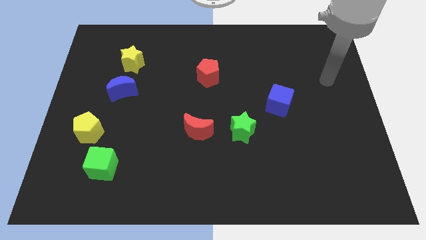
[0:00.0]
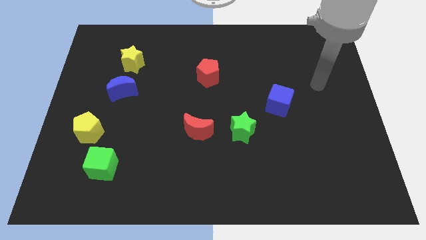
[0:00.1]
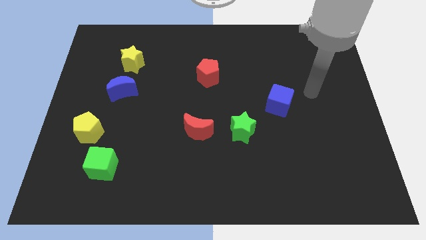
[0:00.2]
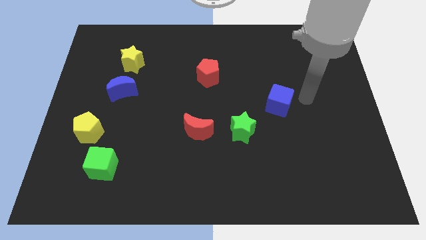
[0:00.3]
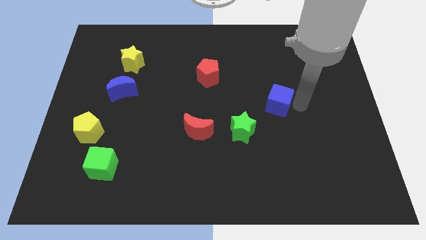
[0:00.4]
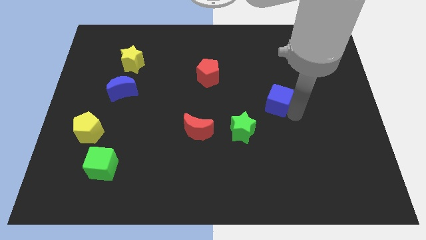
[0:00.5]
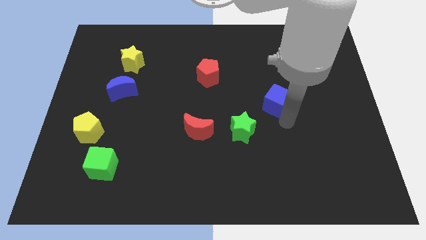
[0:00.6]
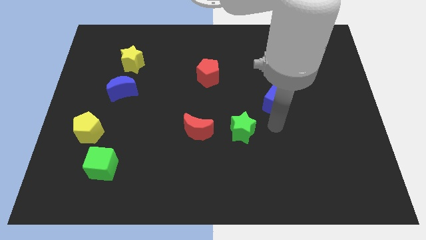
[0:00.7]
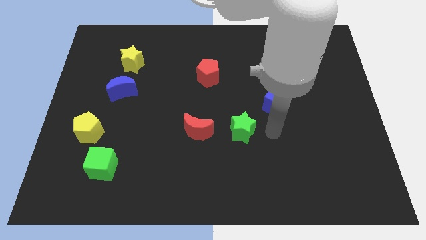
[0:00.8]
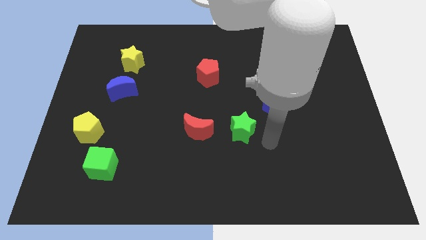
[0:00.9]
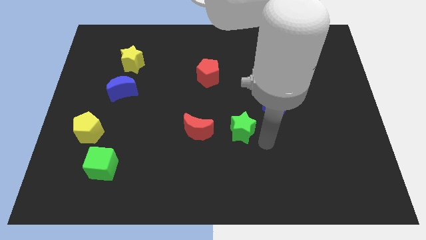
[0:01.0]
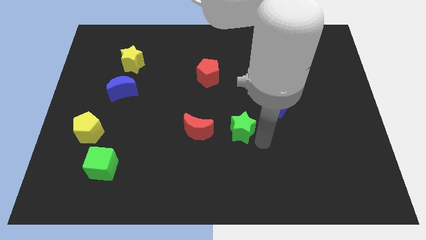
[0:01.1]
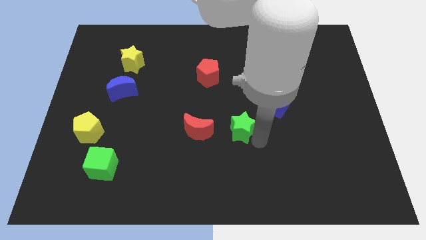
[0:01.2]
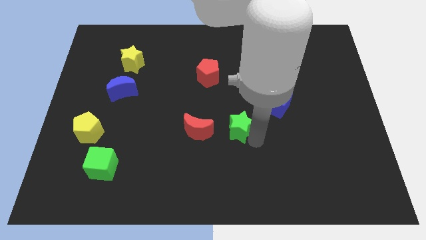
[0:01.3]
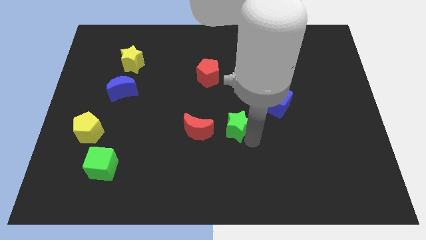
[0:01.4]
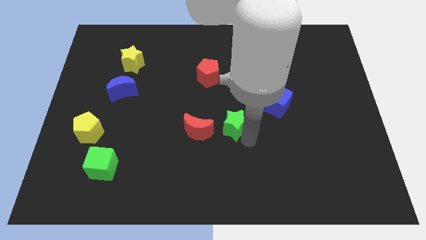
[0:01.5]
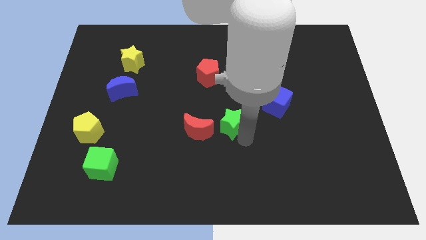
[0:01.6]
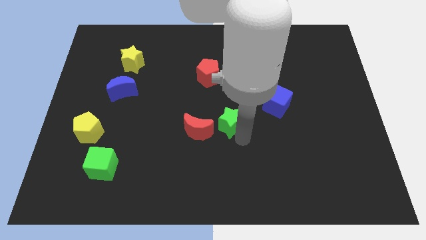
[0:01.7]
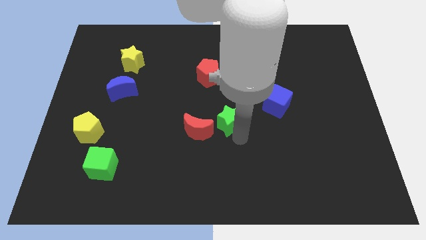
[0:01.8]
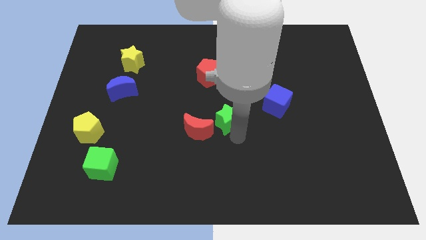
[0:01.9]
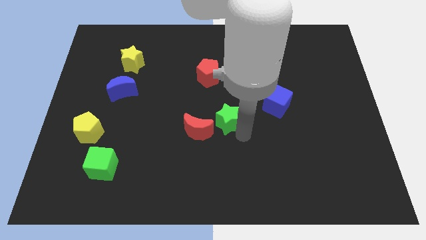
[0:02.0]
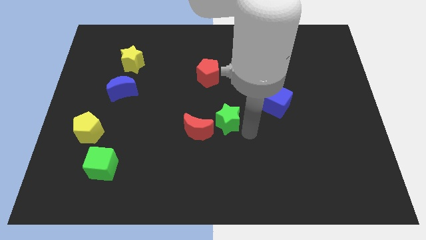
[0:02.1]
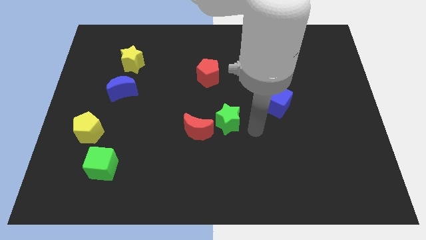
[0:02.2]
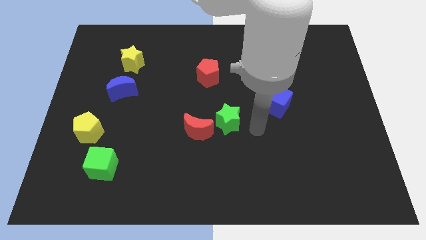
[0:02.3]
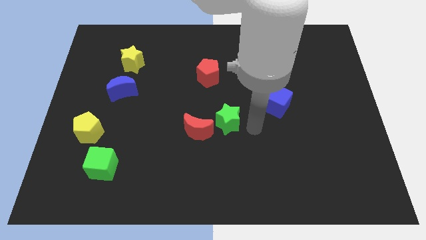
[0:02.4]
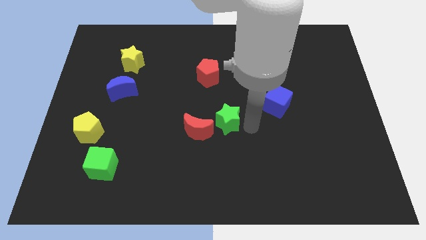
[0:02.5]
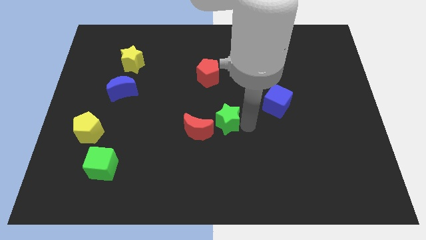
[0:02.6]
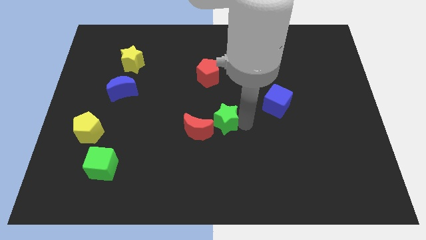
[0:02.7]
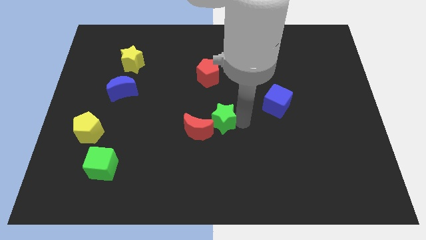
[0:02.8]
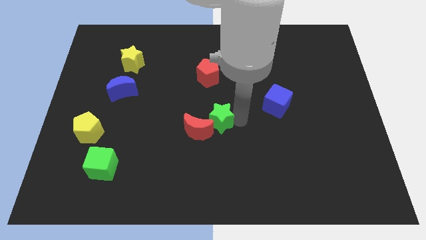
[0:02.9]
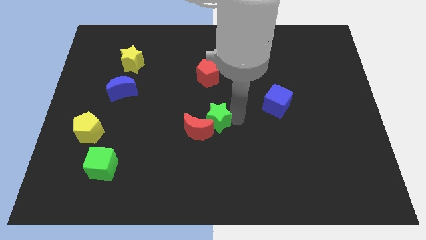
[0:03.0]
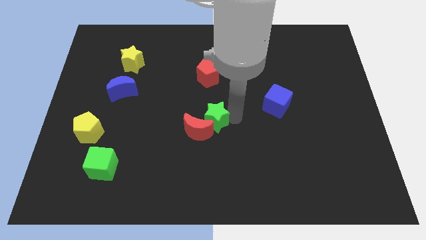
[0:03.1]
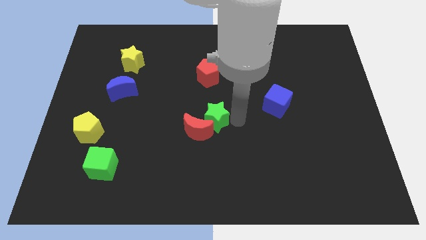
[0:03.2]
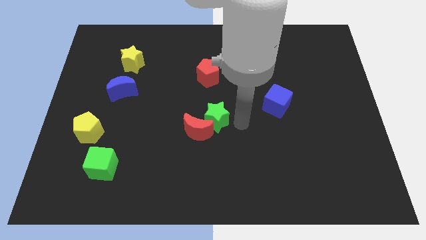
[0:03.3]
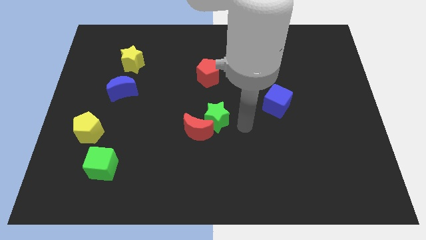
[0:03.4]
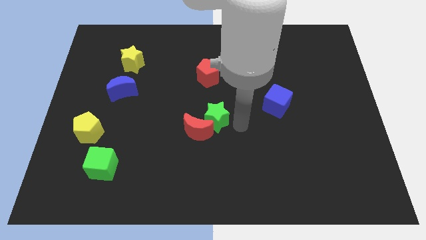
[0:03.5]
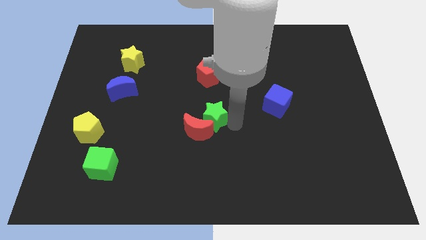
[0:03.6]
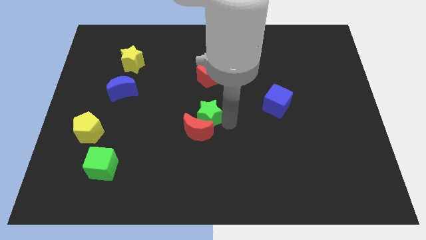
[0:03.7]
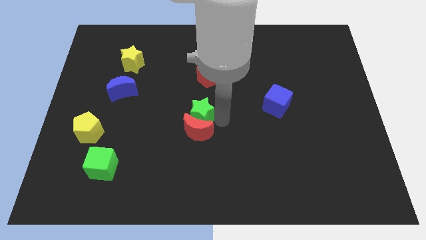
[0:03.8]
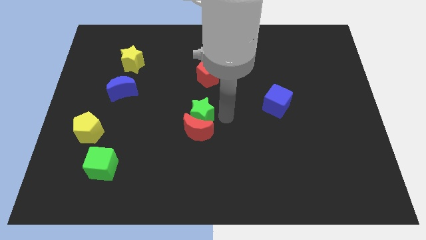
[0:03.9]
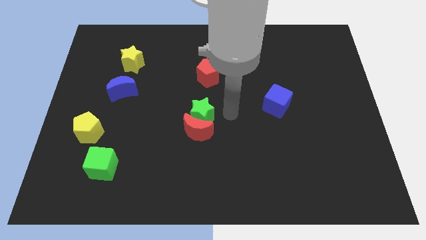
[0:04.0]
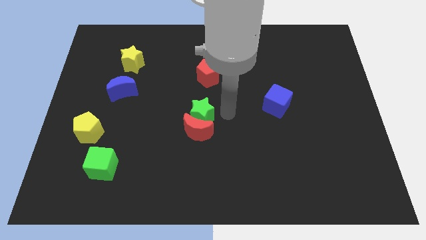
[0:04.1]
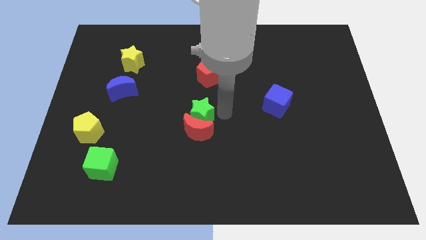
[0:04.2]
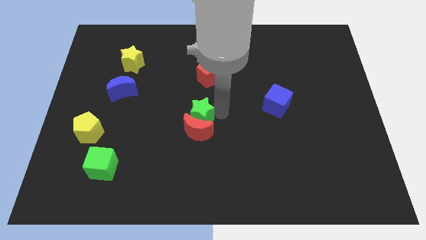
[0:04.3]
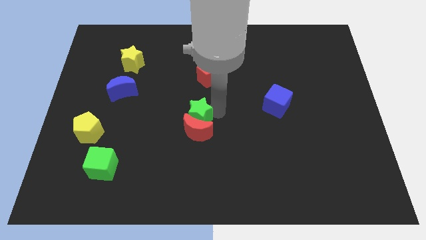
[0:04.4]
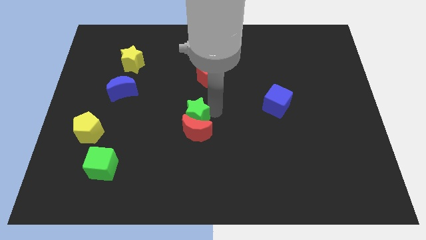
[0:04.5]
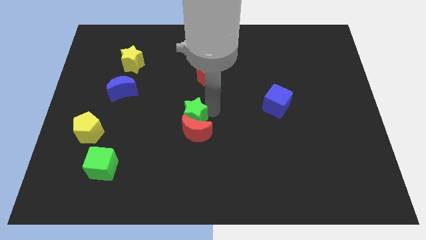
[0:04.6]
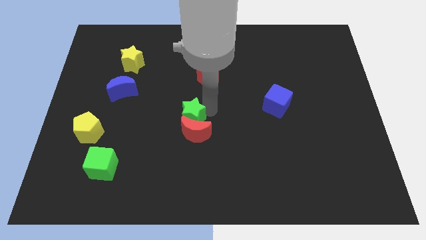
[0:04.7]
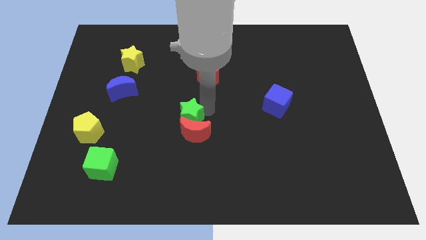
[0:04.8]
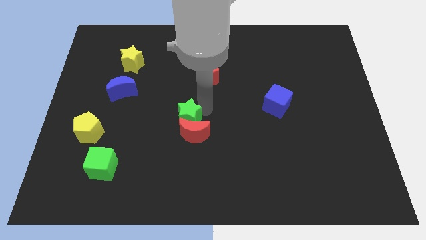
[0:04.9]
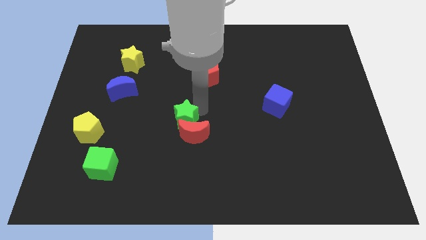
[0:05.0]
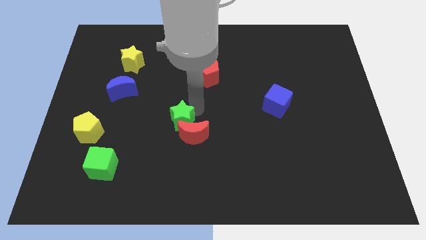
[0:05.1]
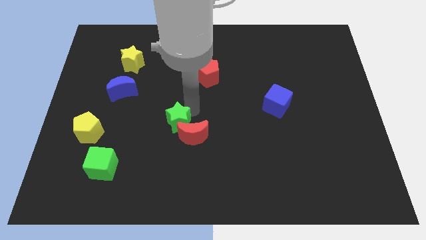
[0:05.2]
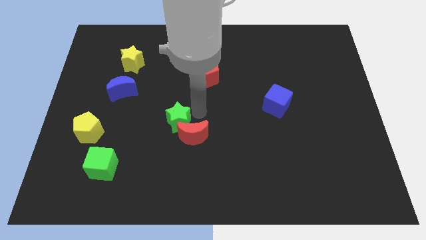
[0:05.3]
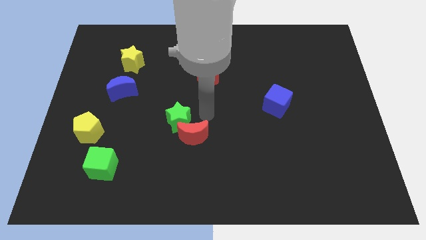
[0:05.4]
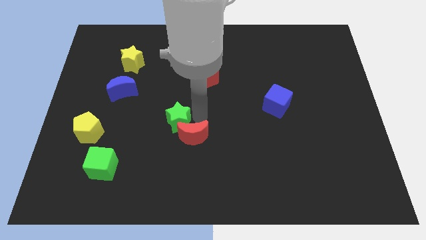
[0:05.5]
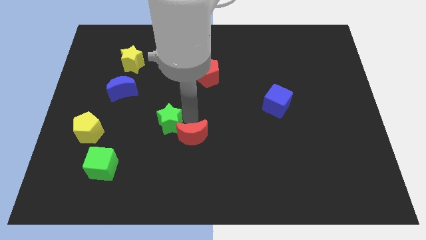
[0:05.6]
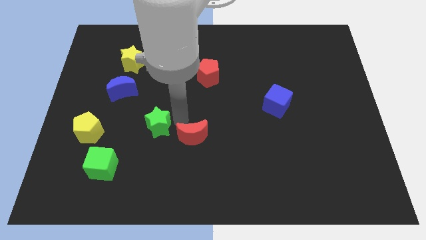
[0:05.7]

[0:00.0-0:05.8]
move the green star to the right of the yellow pentagon
